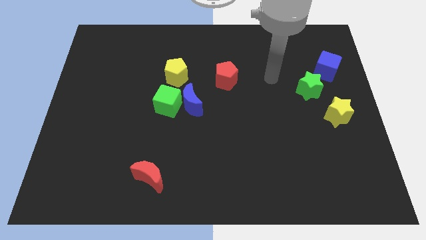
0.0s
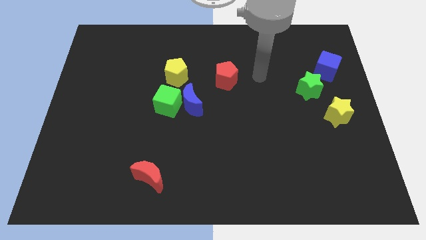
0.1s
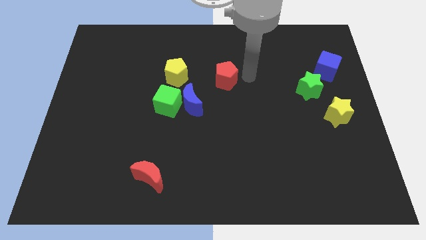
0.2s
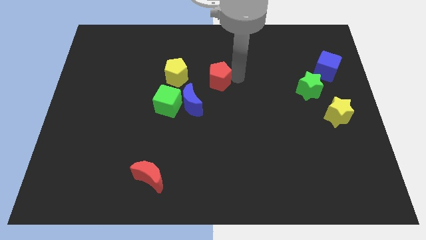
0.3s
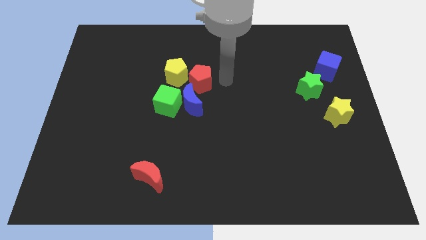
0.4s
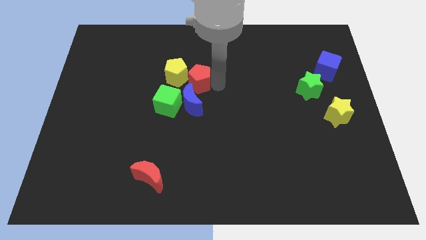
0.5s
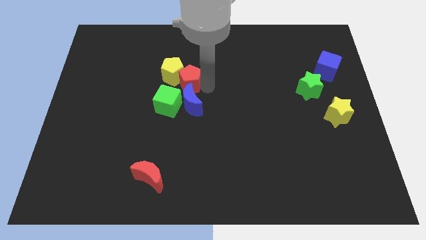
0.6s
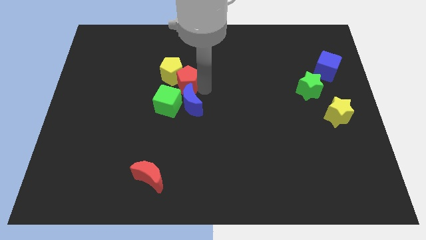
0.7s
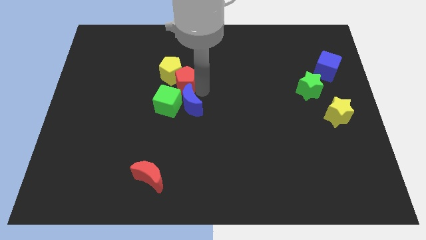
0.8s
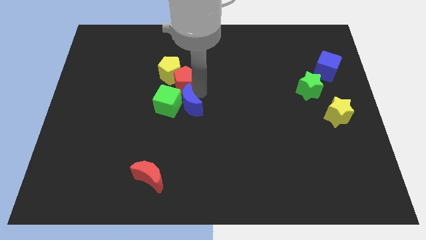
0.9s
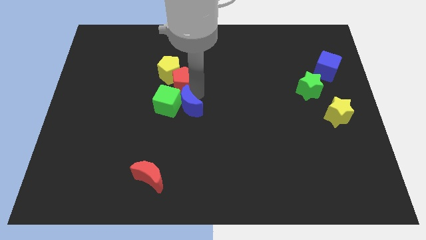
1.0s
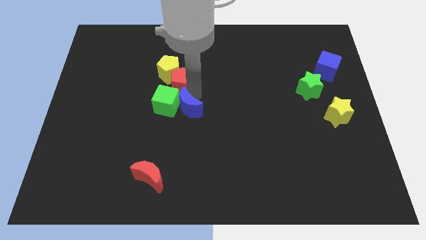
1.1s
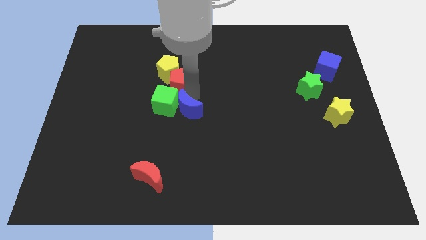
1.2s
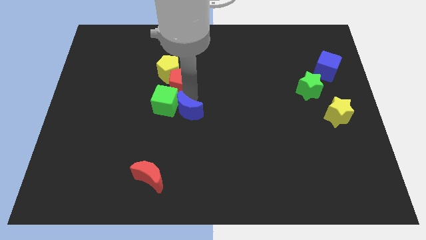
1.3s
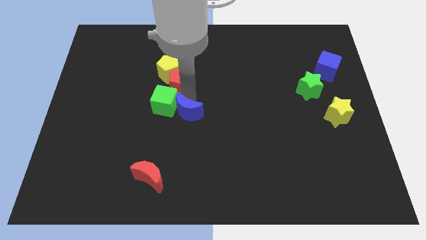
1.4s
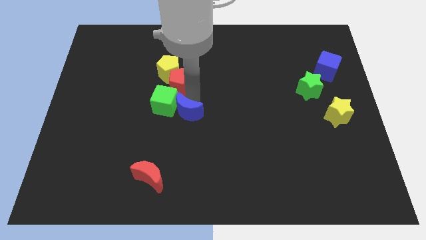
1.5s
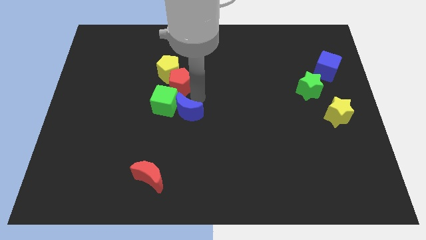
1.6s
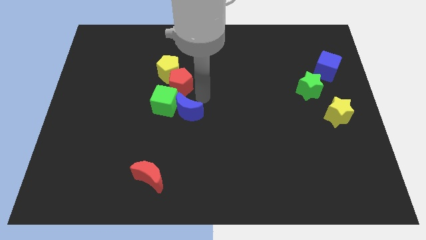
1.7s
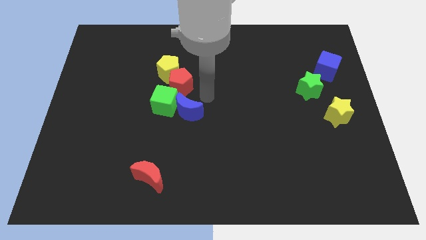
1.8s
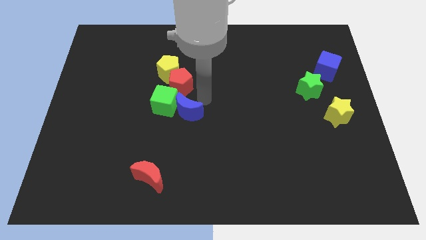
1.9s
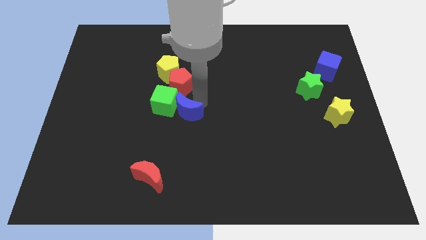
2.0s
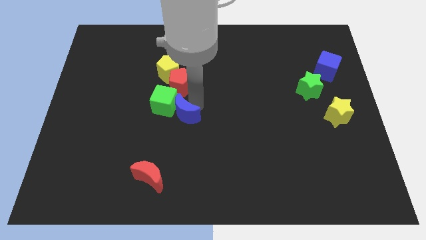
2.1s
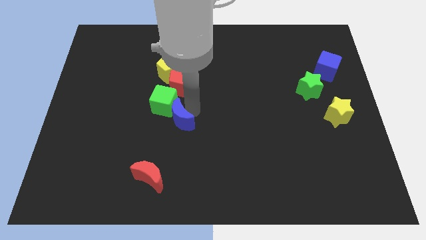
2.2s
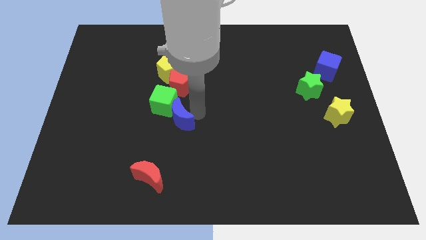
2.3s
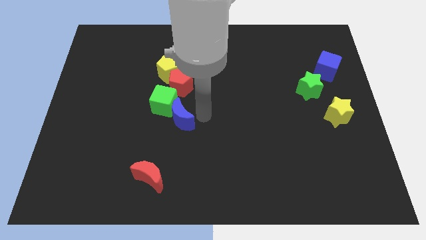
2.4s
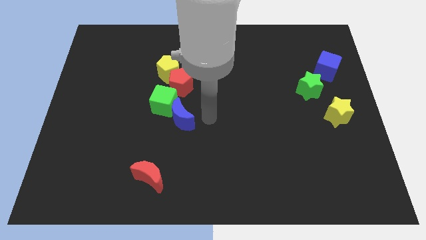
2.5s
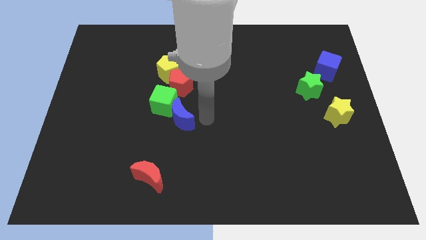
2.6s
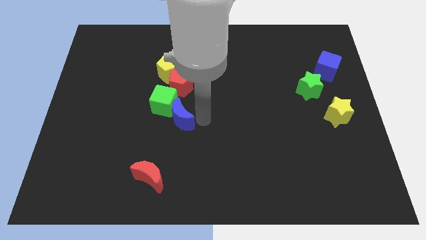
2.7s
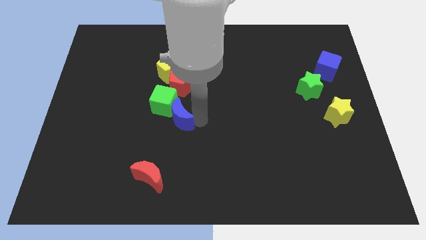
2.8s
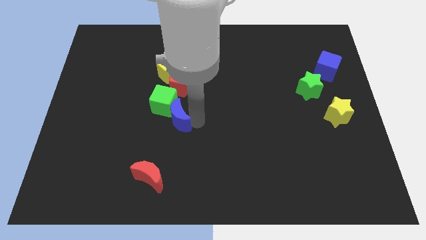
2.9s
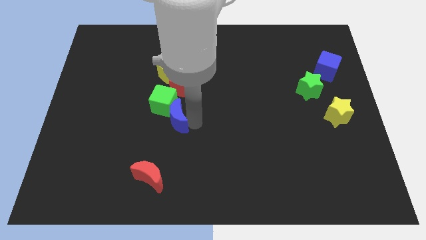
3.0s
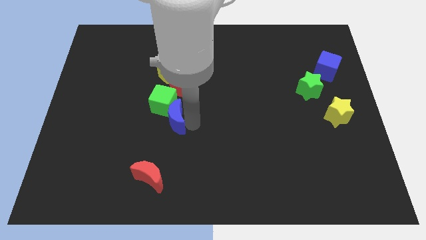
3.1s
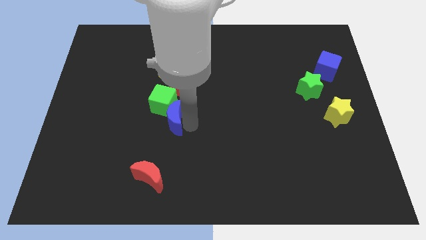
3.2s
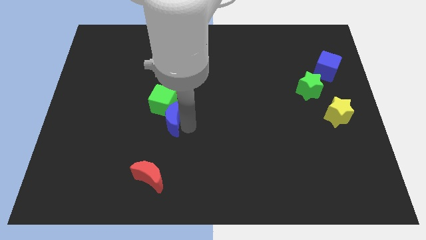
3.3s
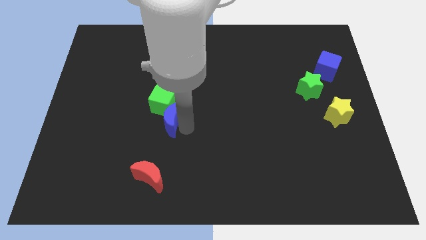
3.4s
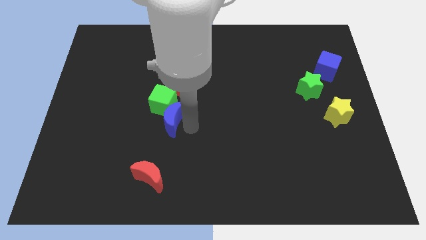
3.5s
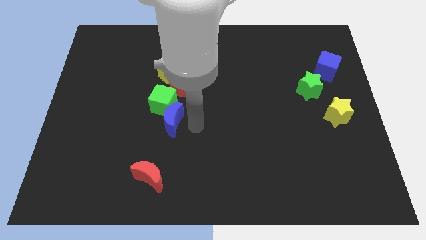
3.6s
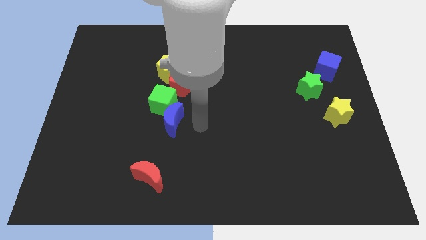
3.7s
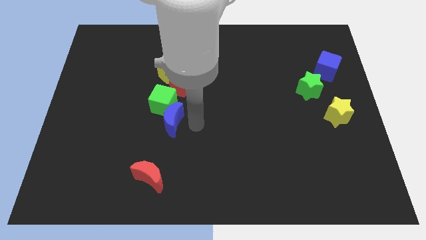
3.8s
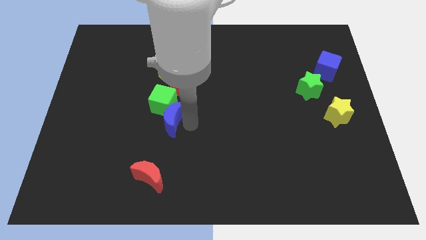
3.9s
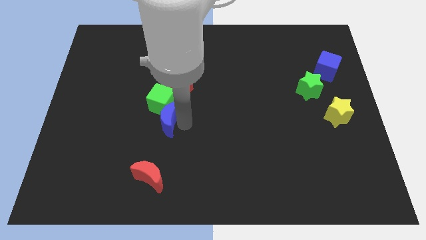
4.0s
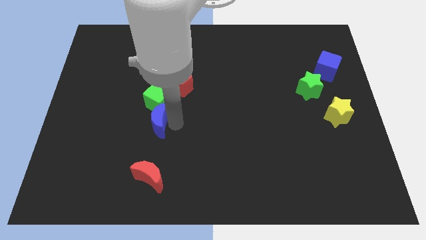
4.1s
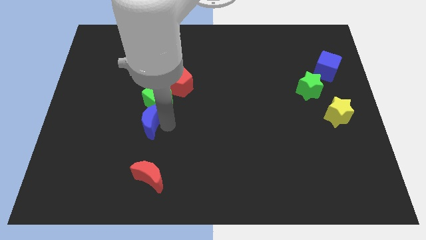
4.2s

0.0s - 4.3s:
slightly slide the blue moon left

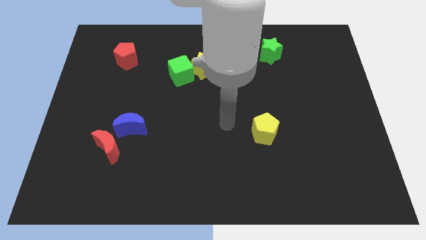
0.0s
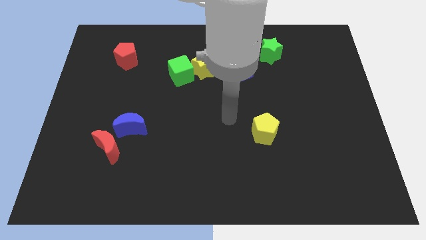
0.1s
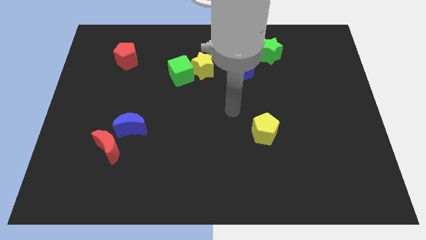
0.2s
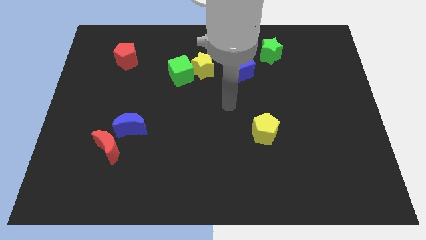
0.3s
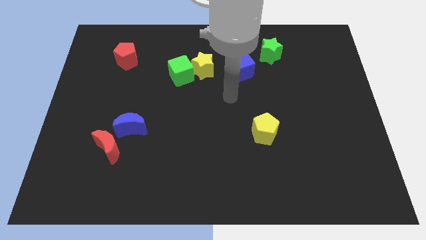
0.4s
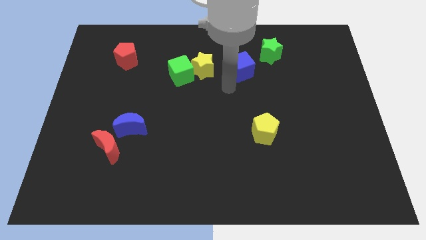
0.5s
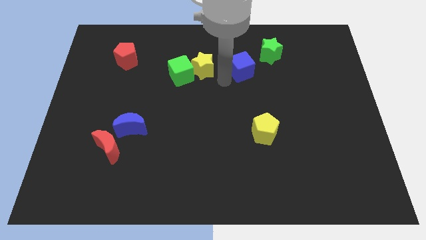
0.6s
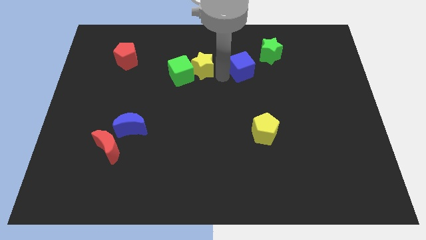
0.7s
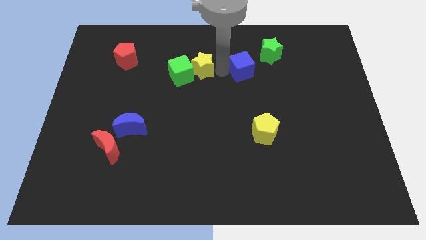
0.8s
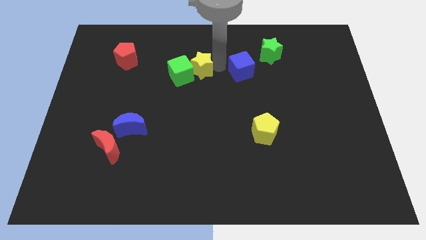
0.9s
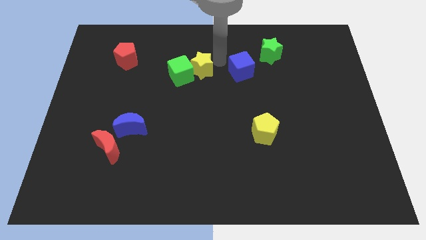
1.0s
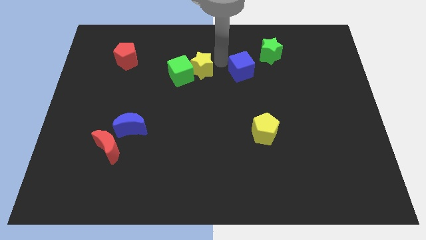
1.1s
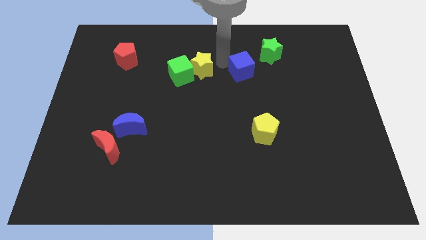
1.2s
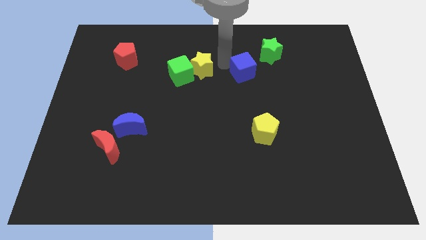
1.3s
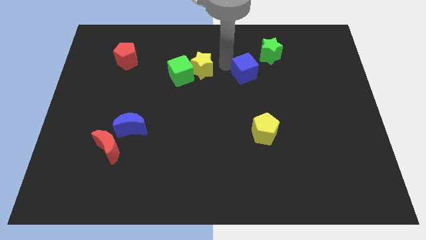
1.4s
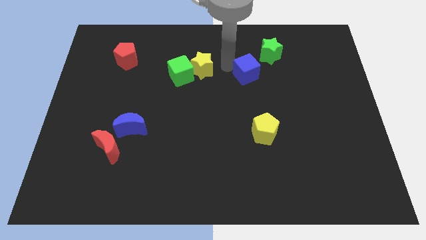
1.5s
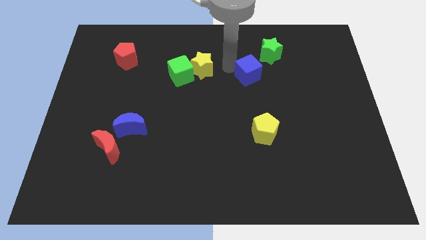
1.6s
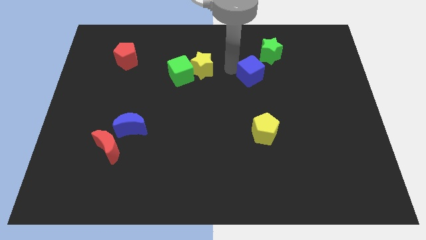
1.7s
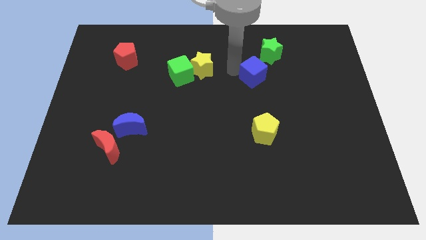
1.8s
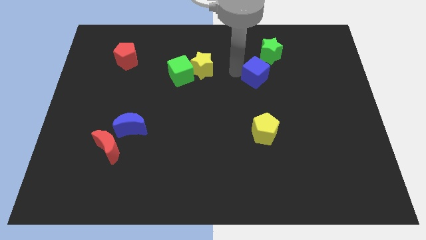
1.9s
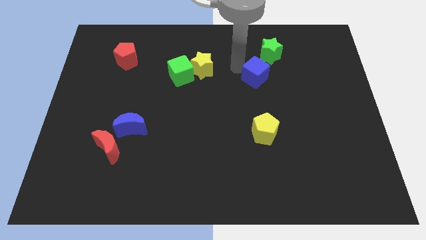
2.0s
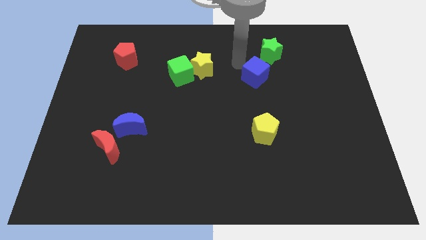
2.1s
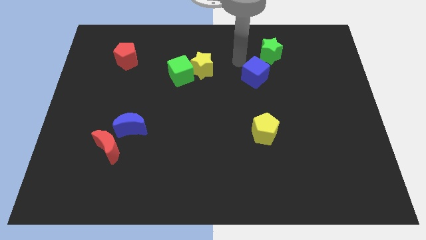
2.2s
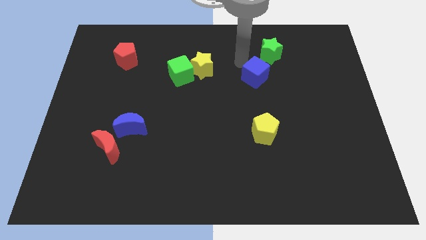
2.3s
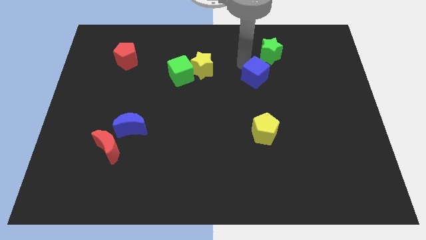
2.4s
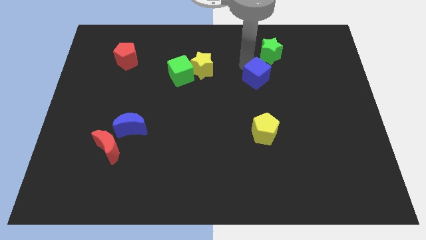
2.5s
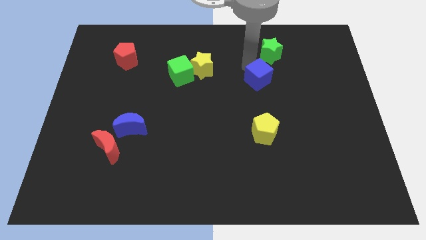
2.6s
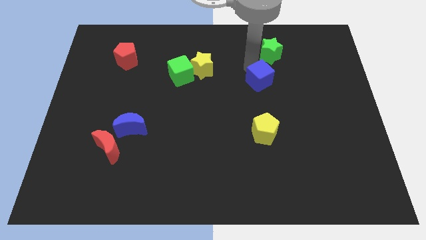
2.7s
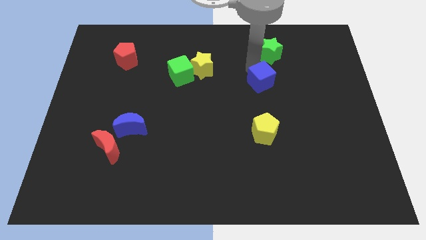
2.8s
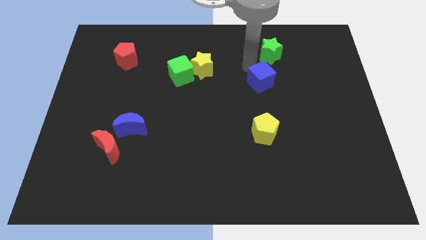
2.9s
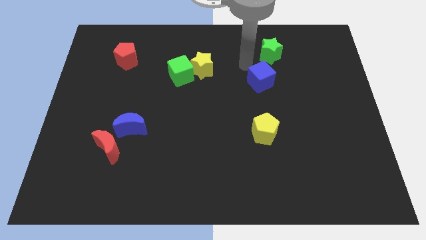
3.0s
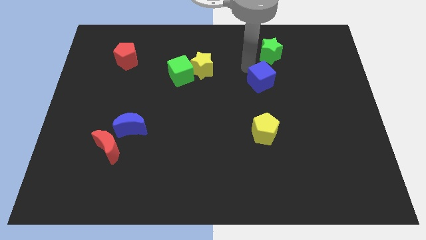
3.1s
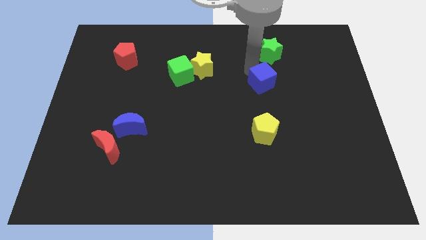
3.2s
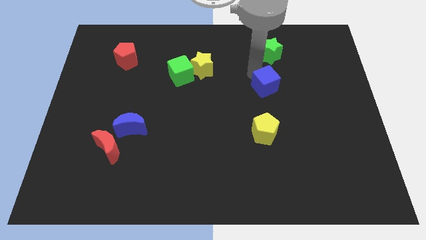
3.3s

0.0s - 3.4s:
push the blue cube downwards and then right a little

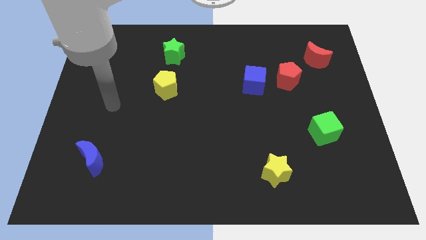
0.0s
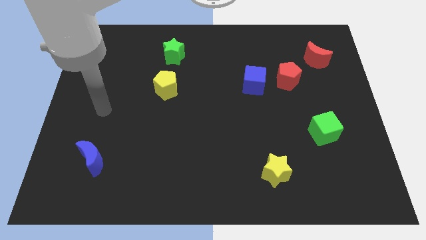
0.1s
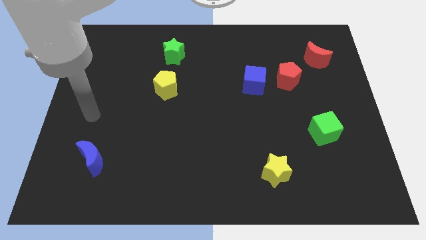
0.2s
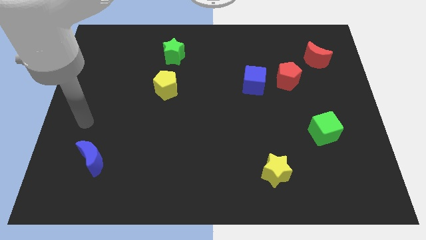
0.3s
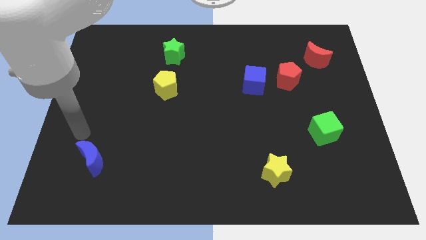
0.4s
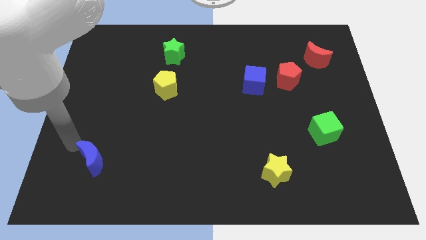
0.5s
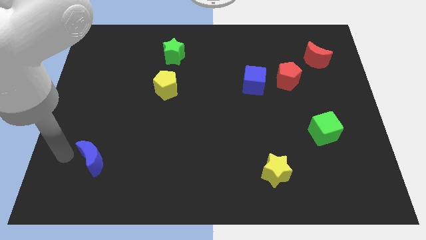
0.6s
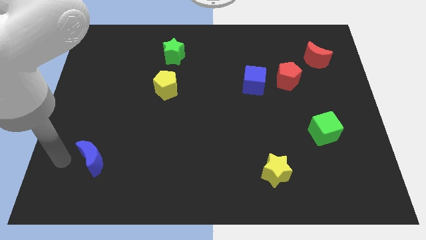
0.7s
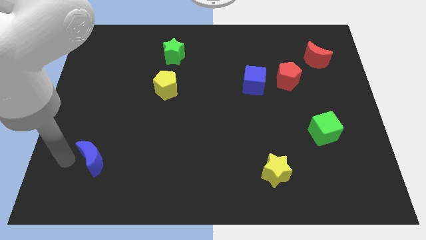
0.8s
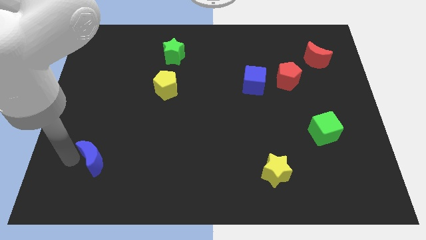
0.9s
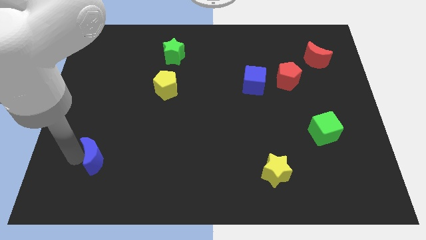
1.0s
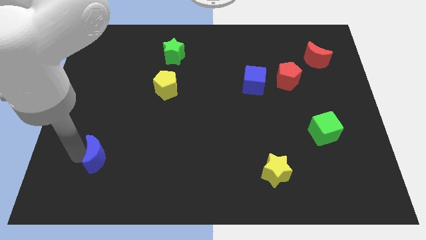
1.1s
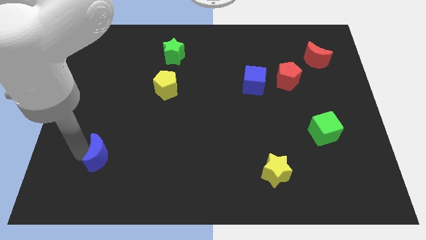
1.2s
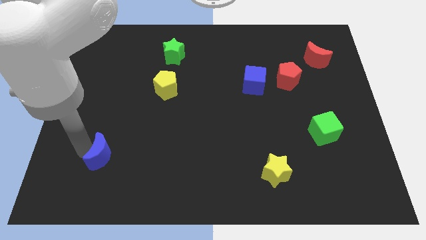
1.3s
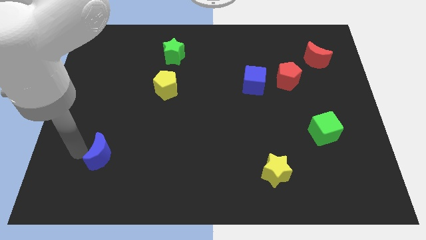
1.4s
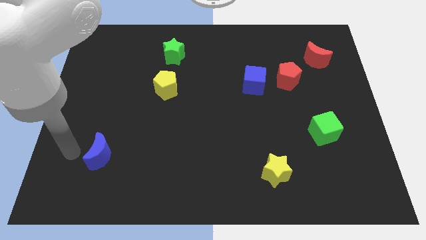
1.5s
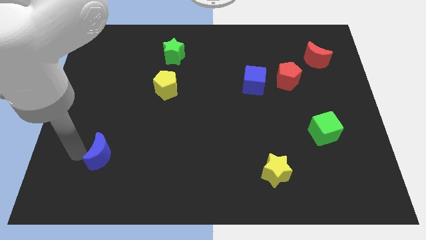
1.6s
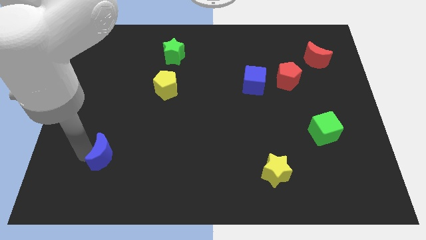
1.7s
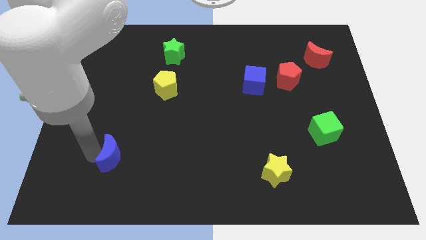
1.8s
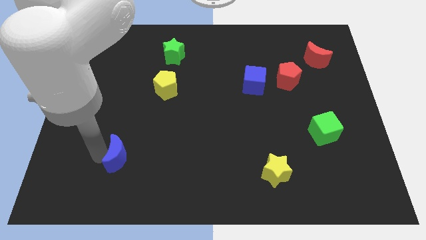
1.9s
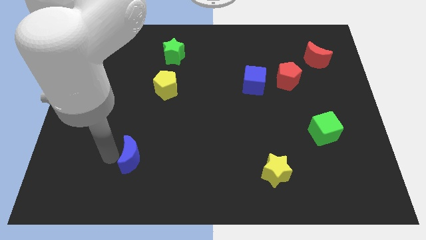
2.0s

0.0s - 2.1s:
slightly slide the blue moon right
